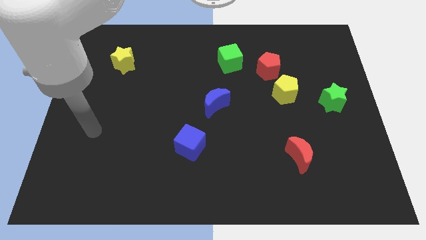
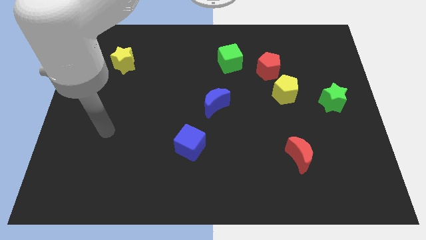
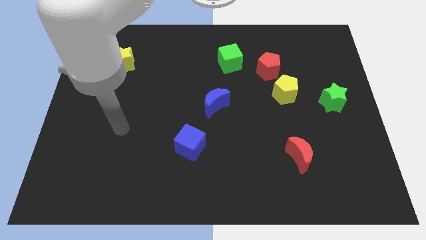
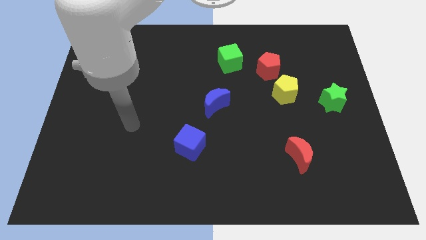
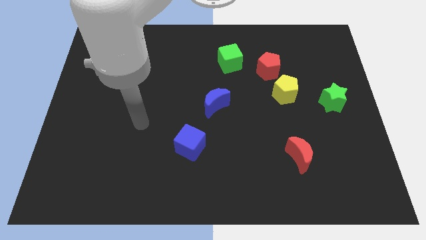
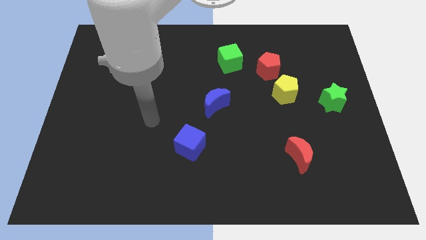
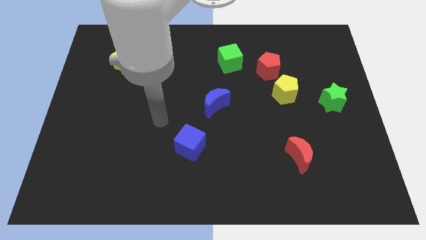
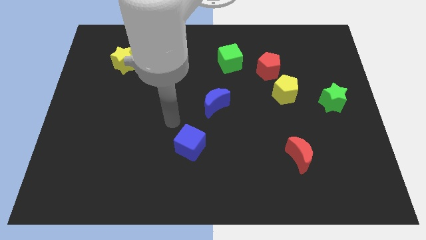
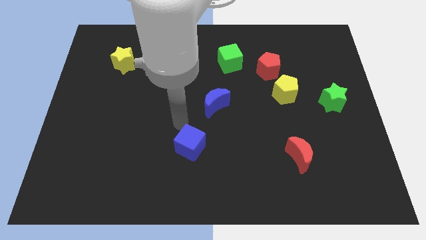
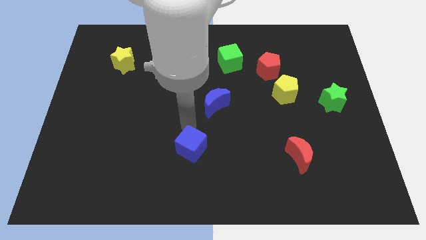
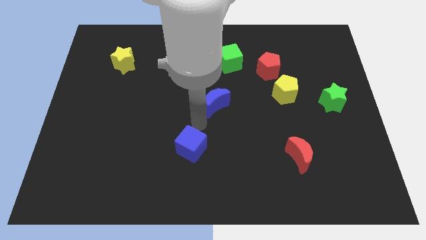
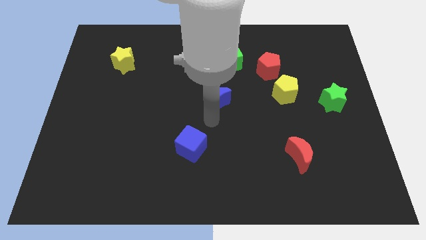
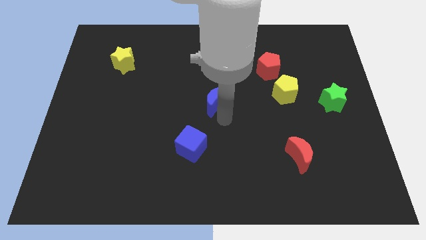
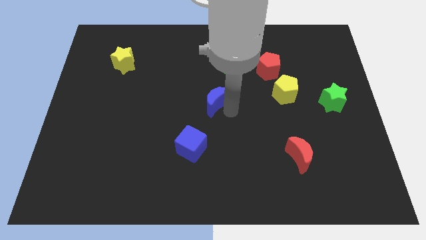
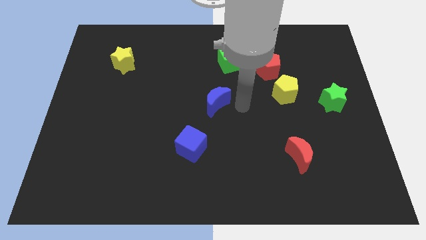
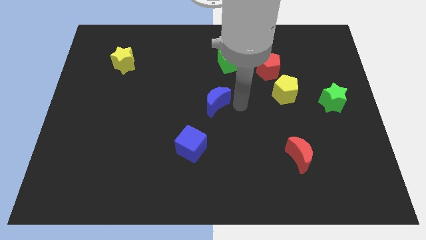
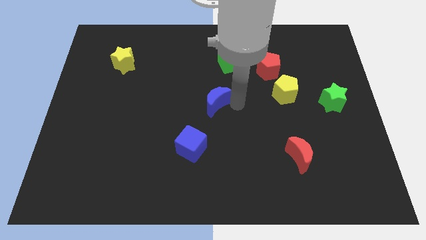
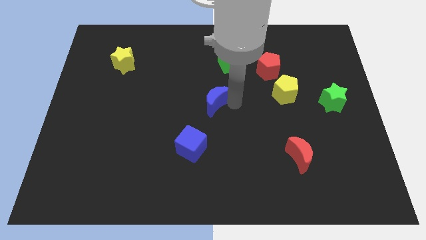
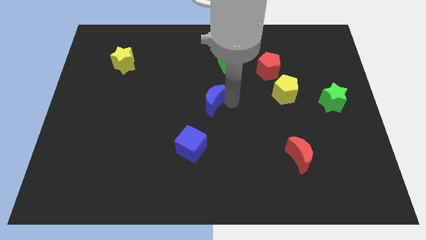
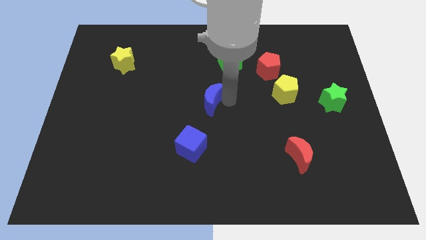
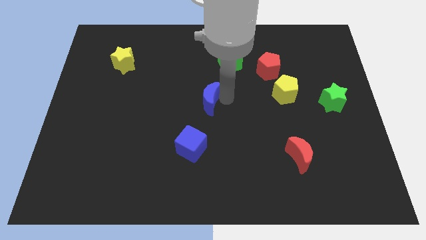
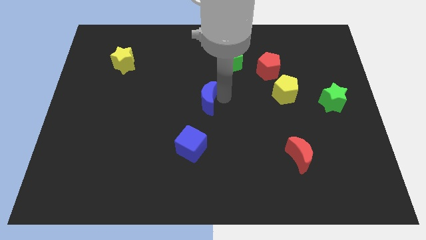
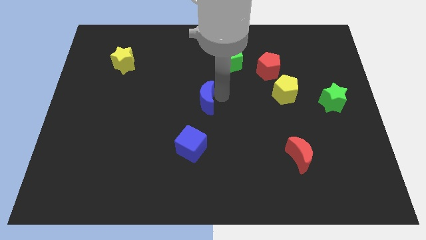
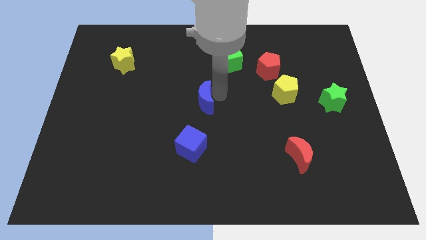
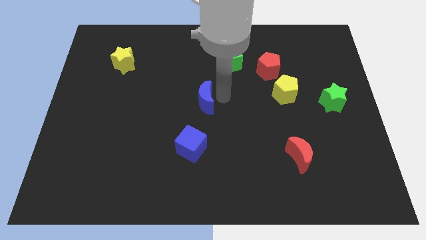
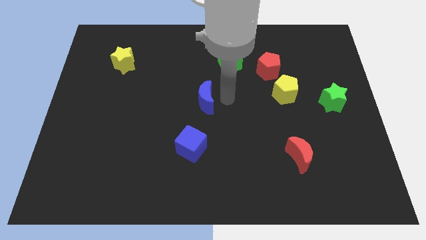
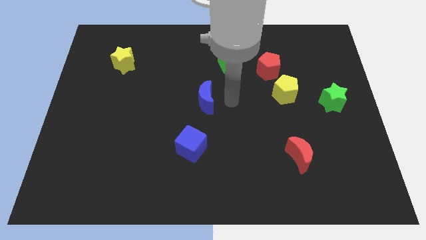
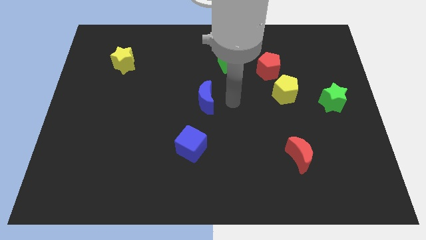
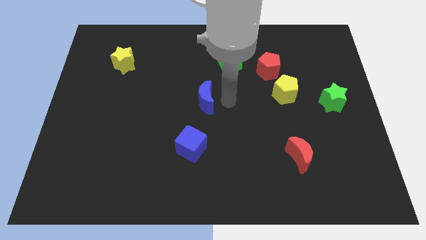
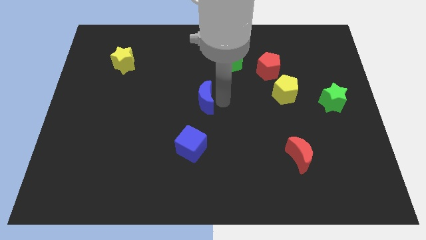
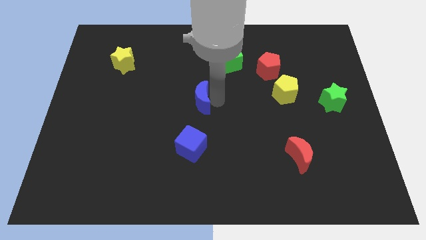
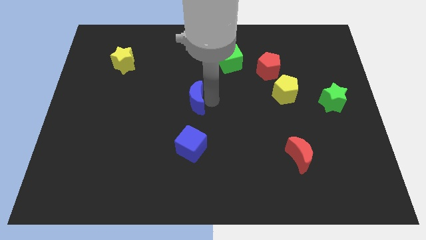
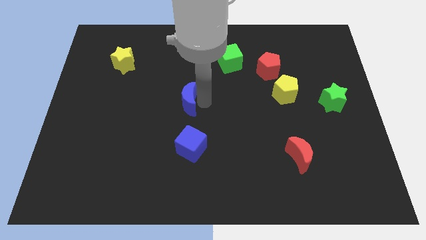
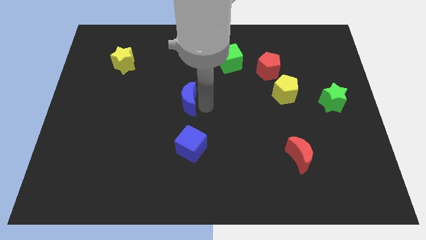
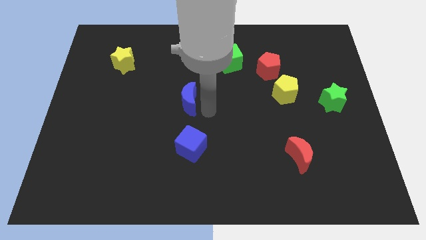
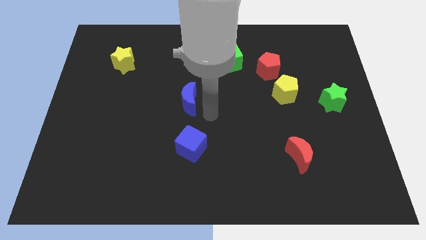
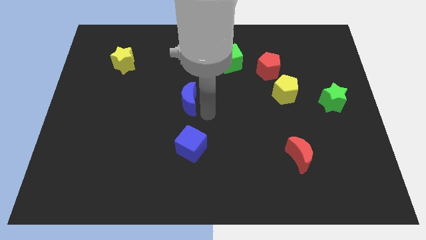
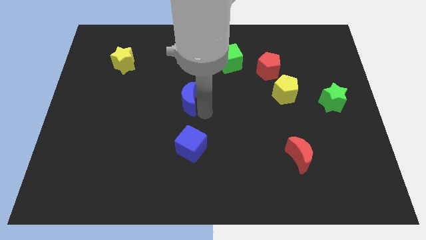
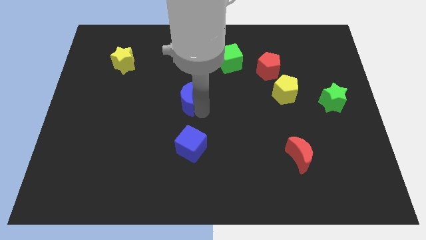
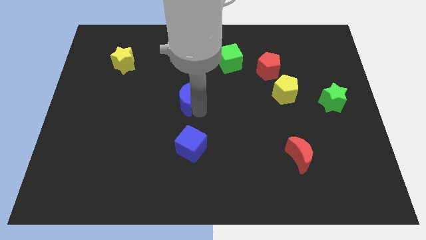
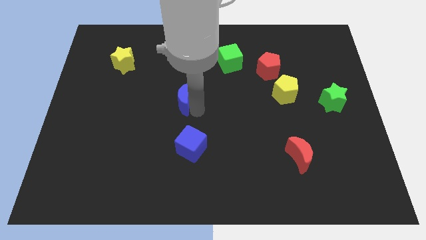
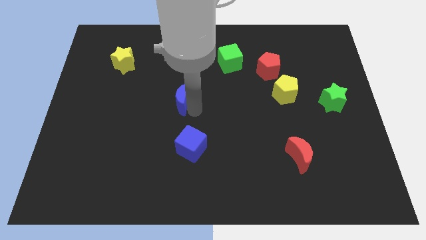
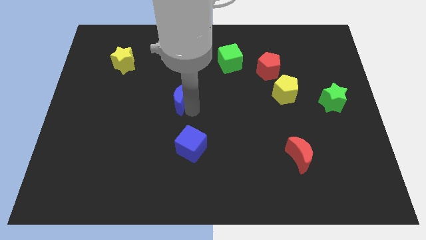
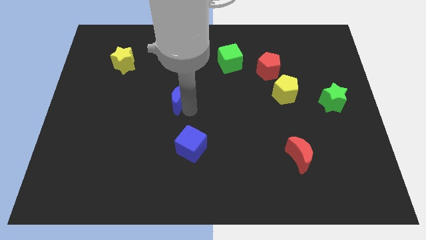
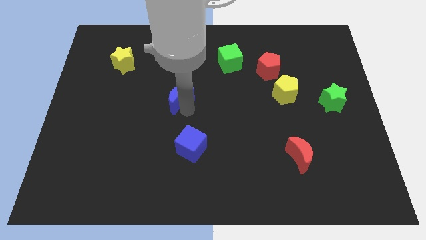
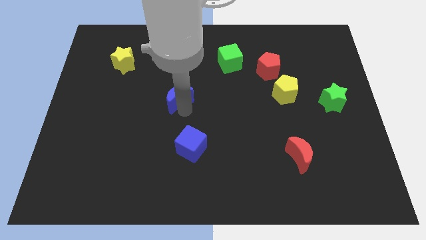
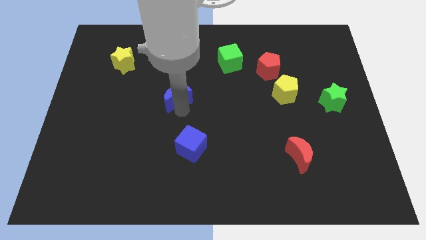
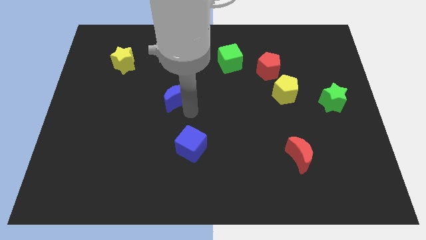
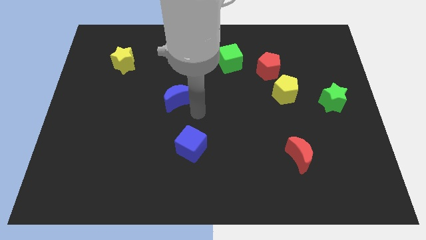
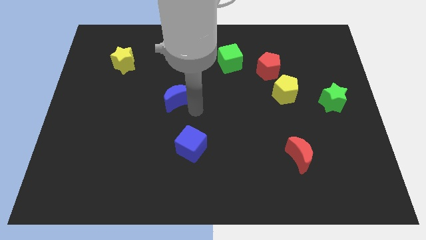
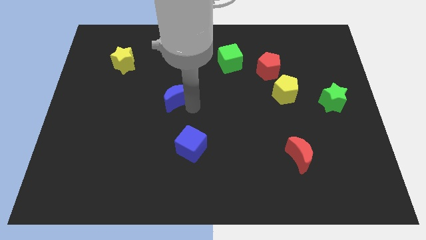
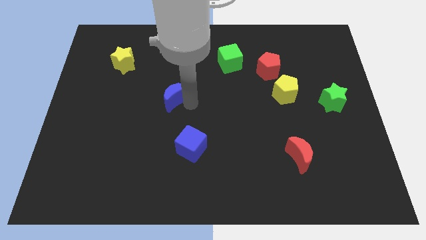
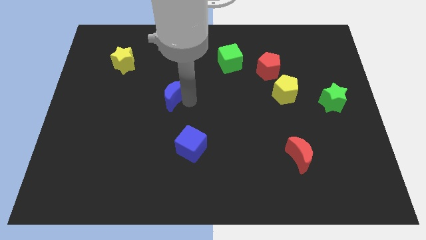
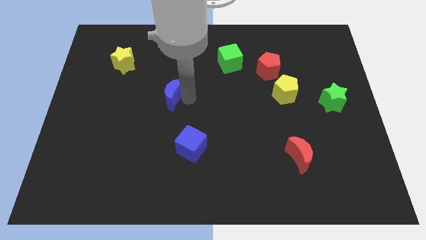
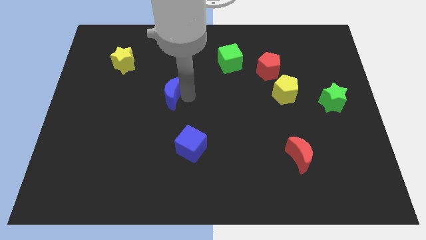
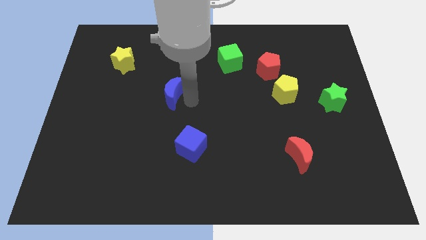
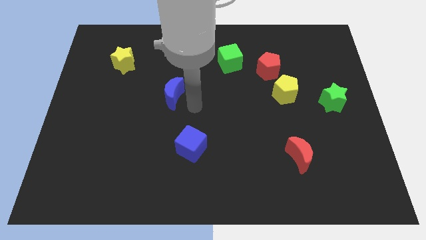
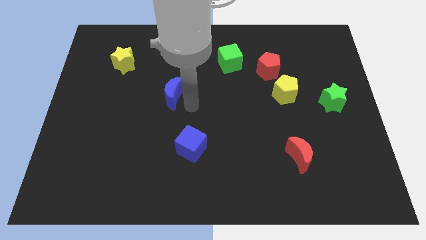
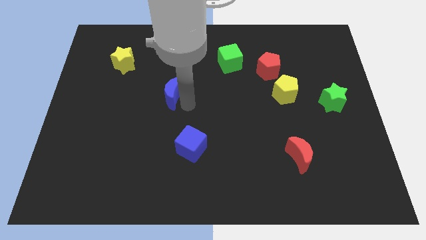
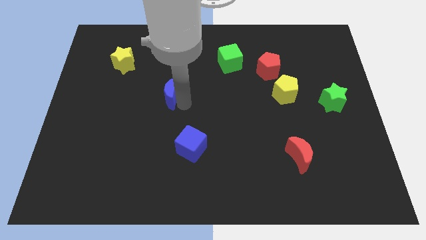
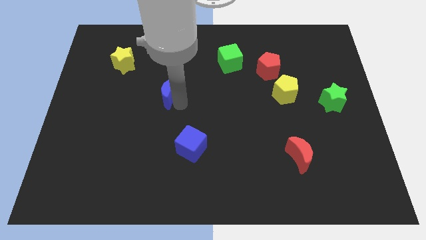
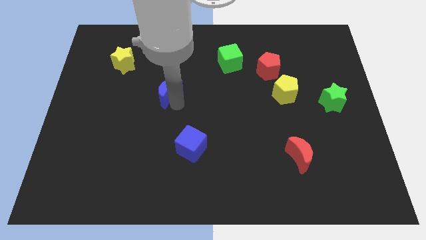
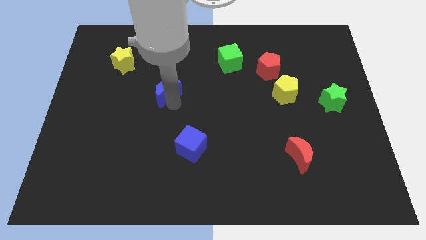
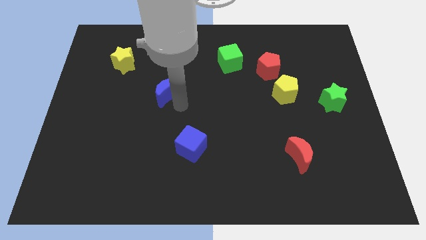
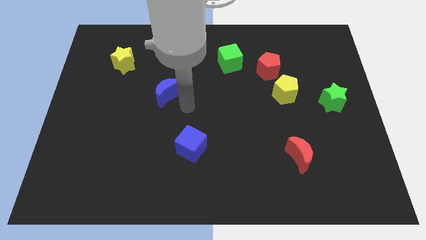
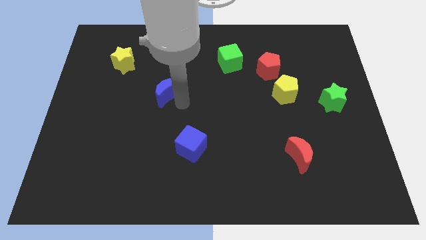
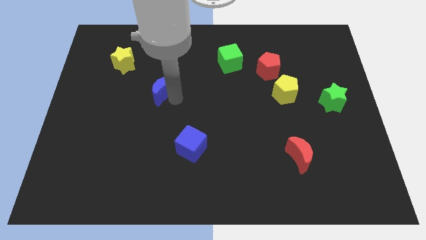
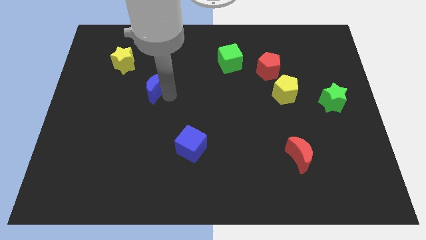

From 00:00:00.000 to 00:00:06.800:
slide the blue moon to the bottom right of the yellow star

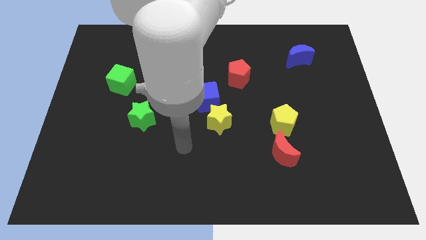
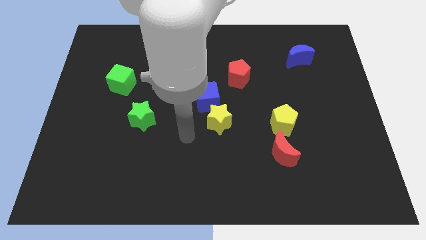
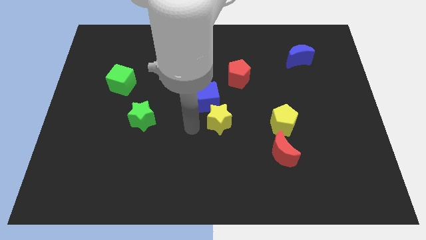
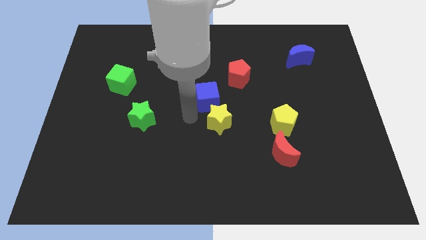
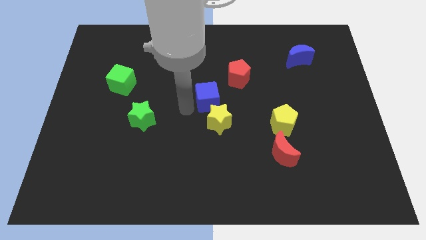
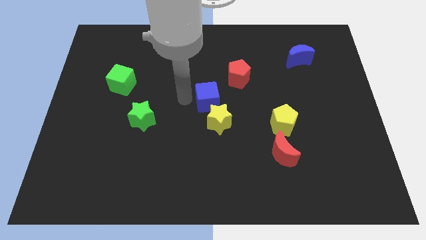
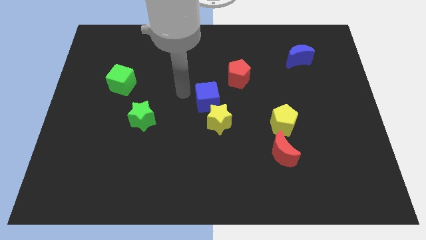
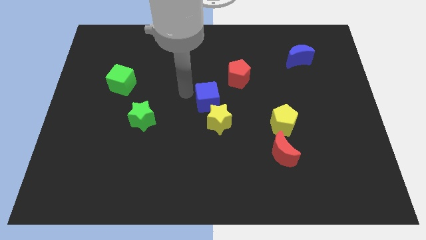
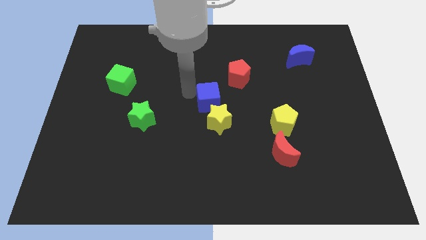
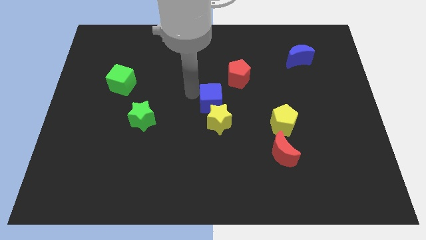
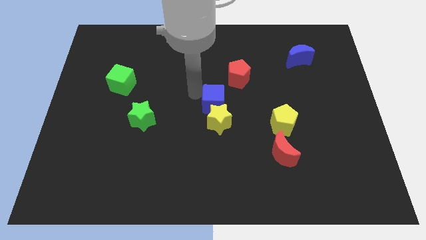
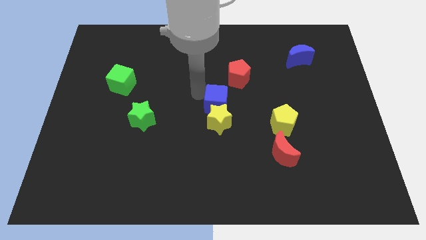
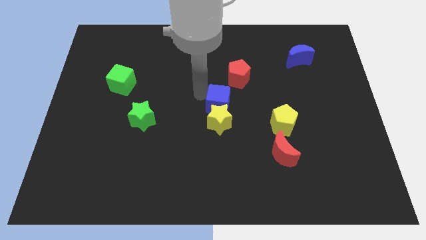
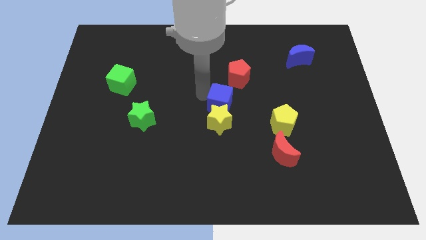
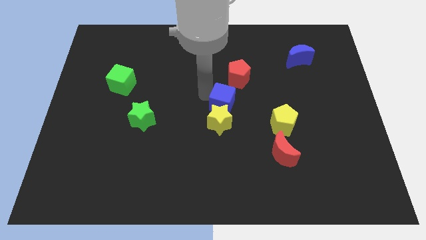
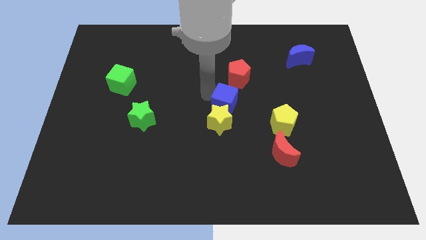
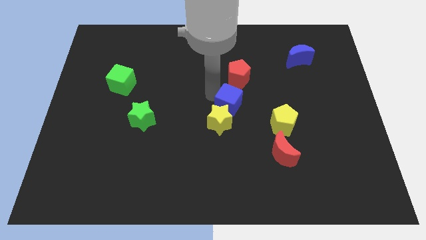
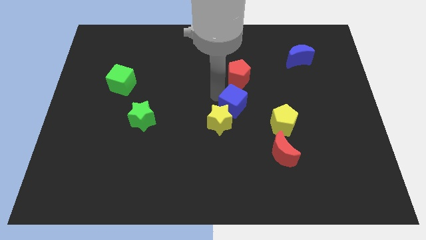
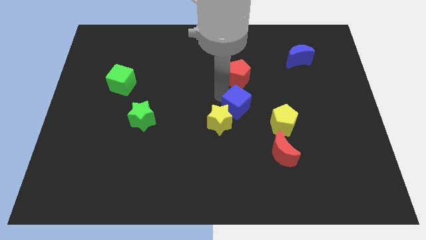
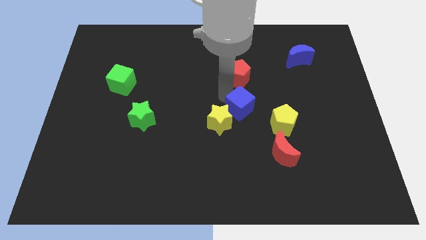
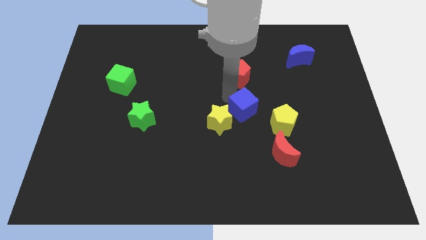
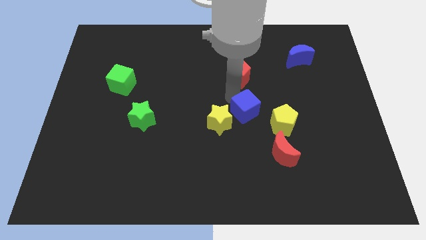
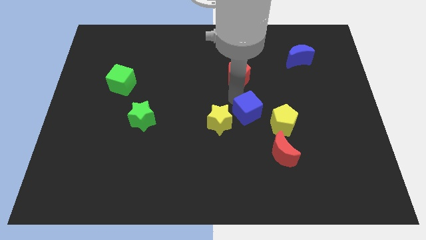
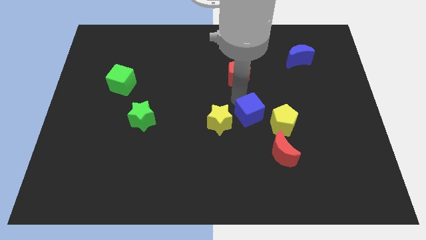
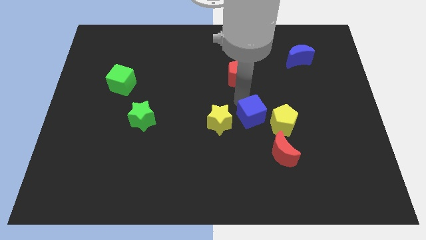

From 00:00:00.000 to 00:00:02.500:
slide the blue cube to the top left side of the red moon
